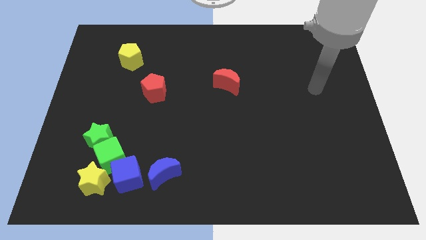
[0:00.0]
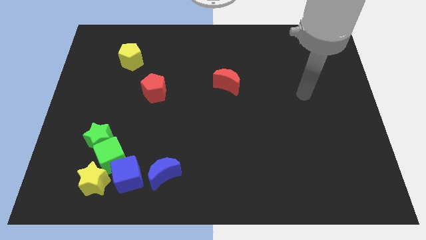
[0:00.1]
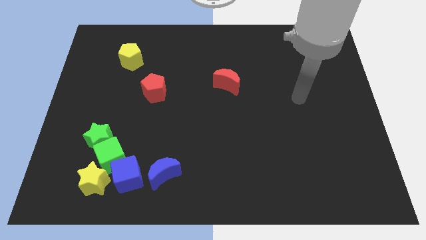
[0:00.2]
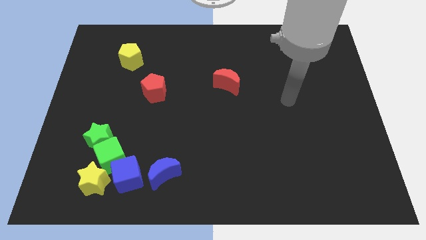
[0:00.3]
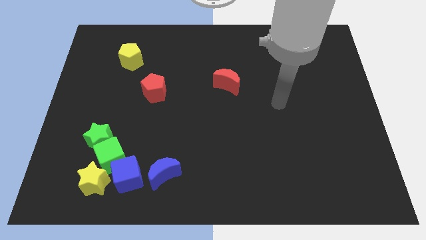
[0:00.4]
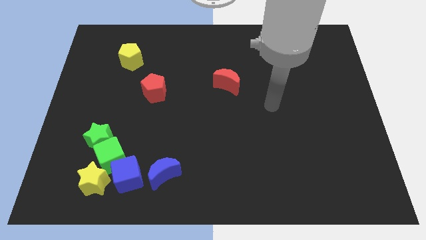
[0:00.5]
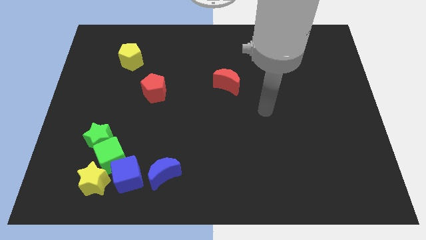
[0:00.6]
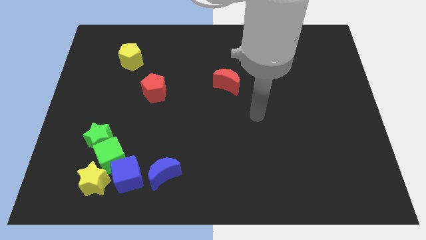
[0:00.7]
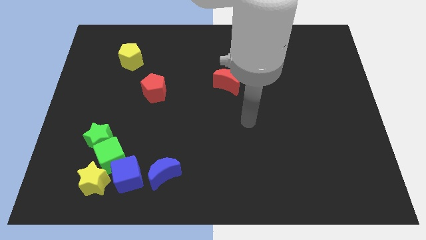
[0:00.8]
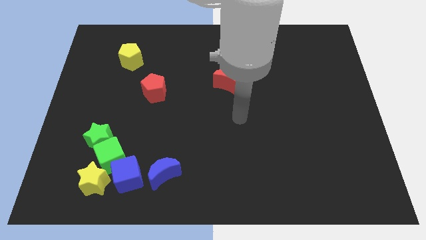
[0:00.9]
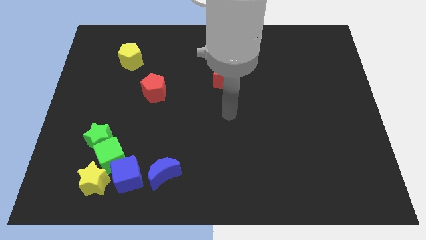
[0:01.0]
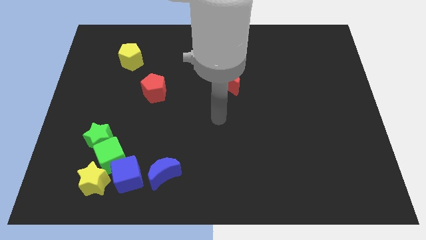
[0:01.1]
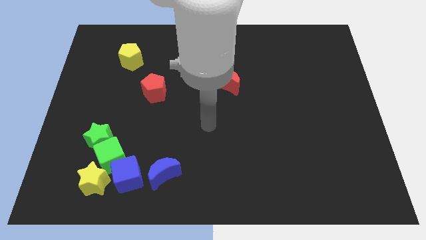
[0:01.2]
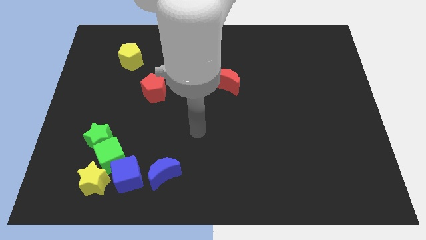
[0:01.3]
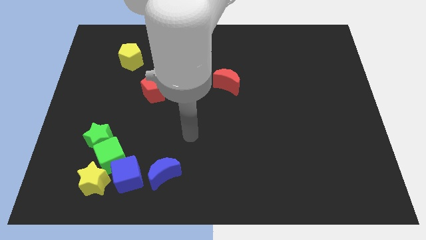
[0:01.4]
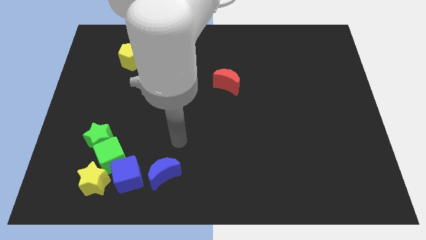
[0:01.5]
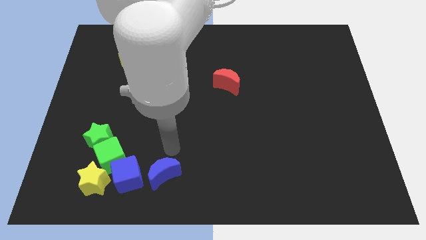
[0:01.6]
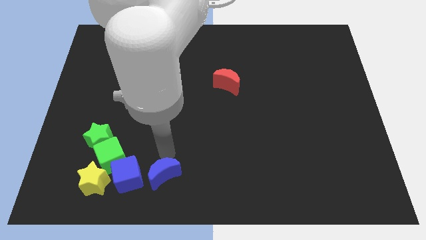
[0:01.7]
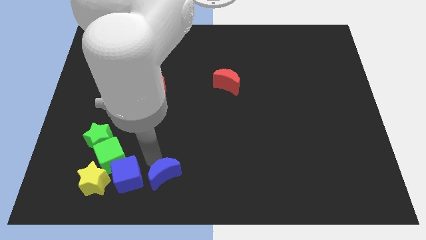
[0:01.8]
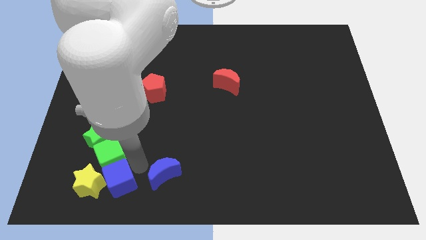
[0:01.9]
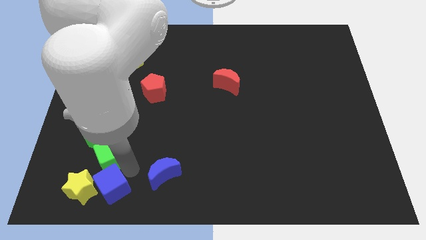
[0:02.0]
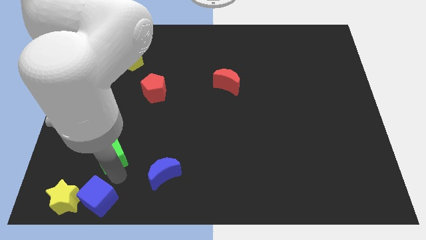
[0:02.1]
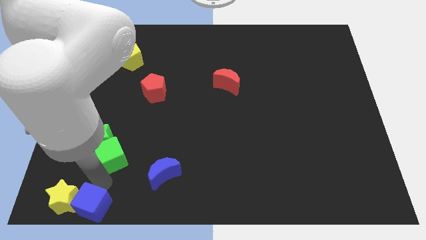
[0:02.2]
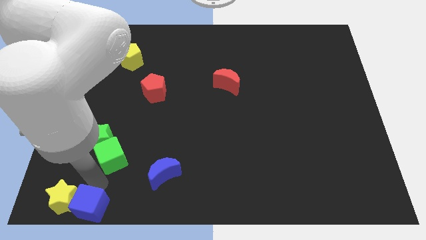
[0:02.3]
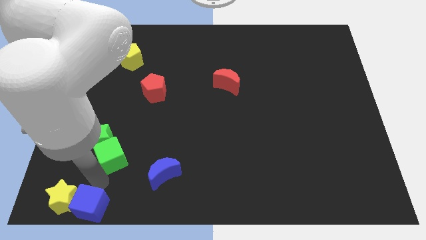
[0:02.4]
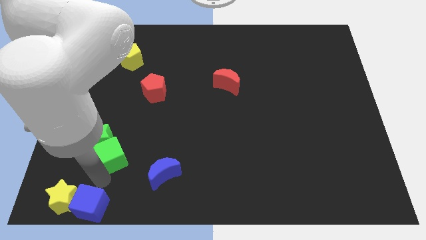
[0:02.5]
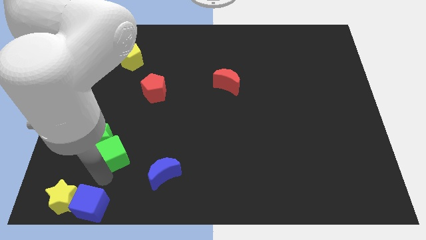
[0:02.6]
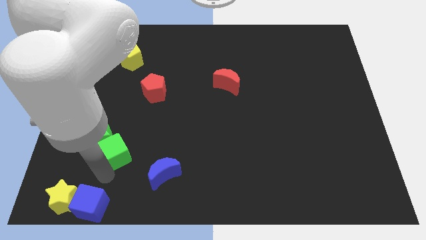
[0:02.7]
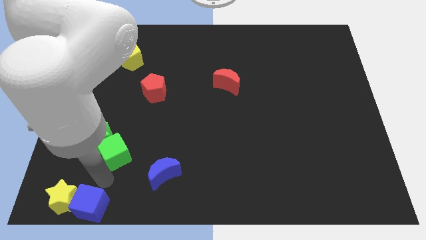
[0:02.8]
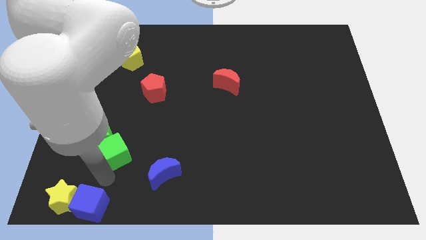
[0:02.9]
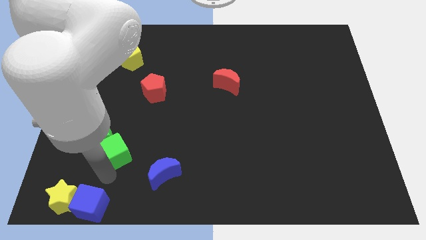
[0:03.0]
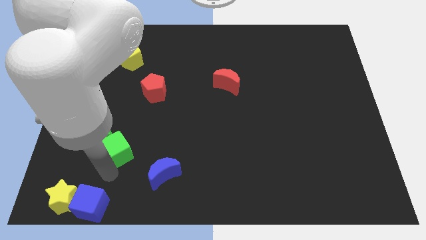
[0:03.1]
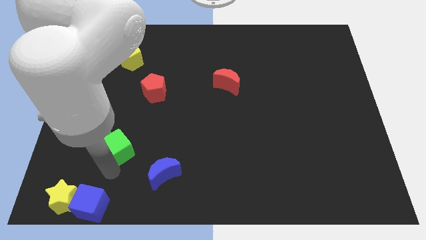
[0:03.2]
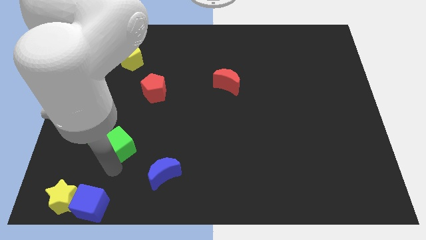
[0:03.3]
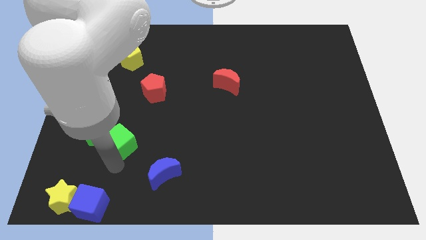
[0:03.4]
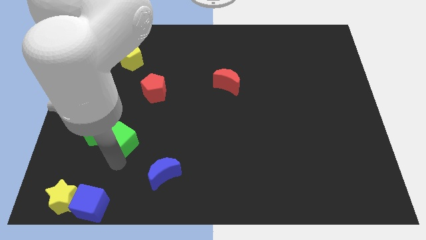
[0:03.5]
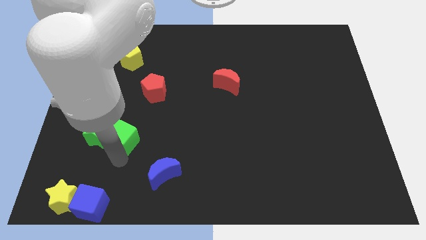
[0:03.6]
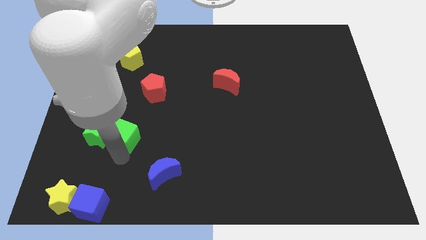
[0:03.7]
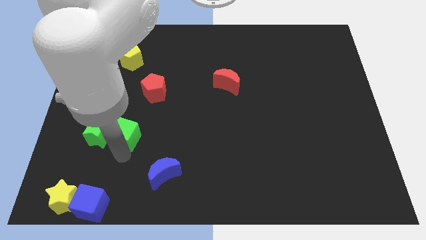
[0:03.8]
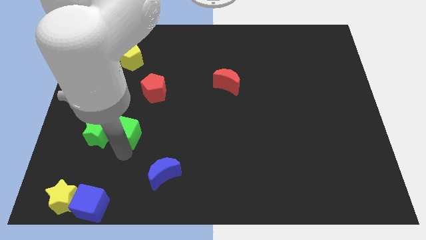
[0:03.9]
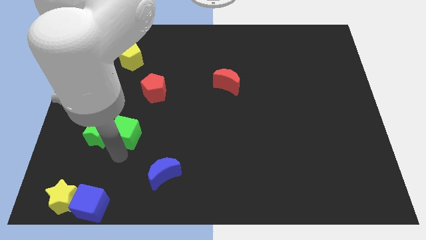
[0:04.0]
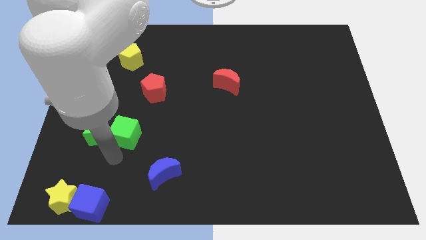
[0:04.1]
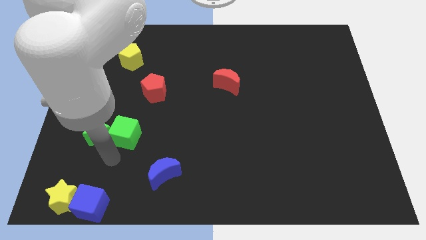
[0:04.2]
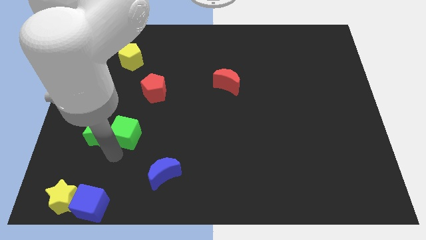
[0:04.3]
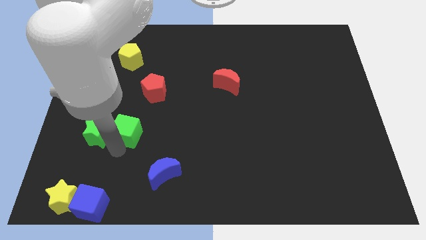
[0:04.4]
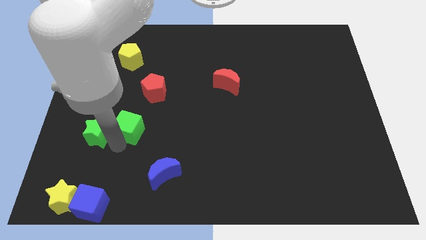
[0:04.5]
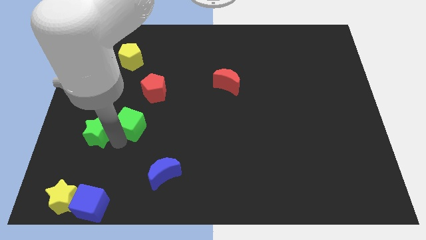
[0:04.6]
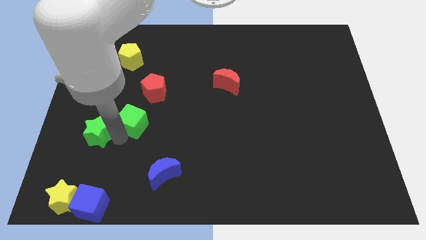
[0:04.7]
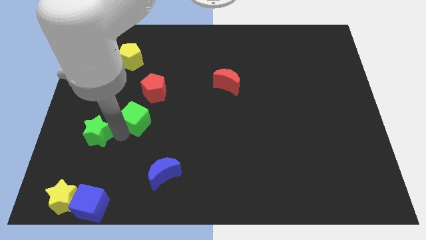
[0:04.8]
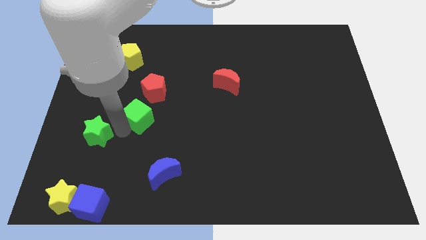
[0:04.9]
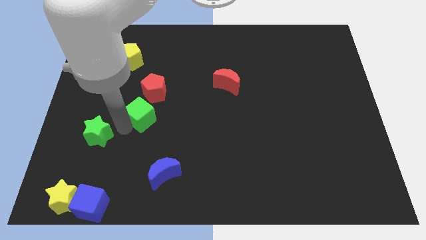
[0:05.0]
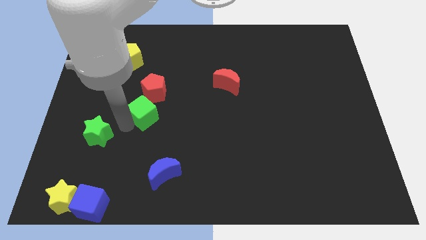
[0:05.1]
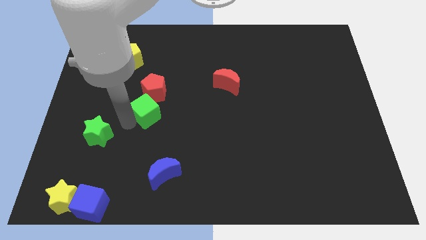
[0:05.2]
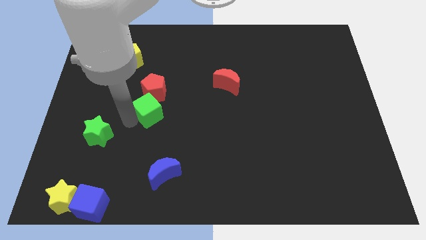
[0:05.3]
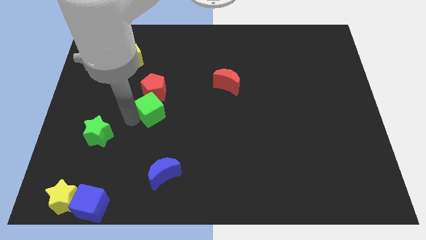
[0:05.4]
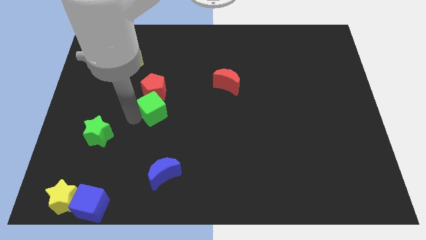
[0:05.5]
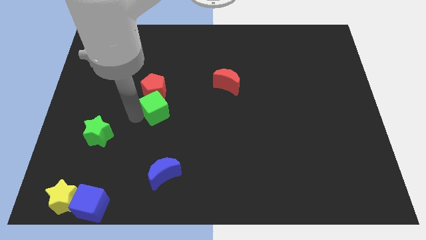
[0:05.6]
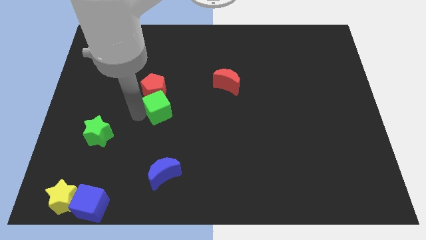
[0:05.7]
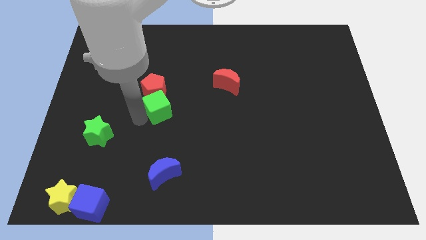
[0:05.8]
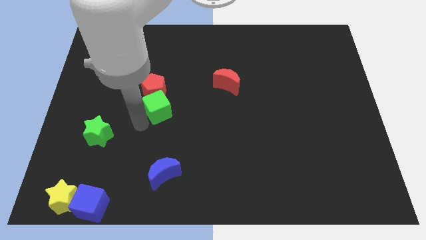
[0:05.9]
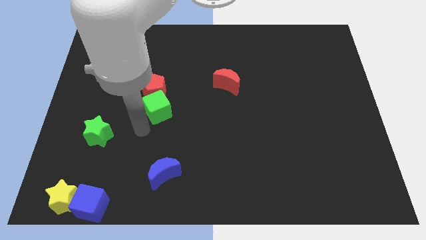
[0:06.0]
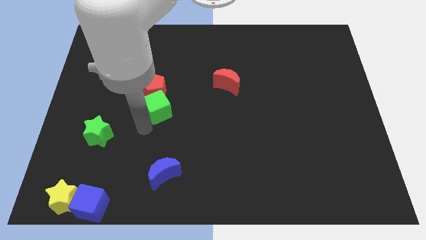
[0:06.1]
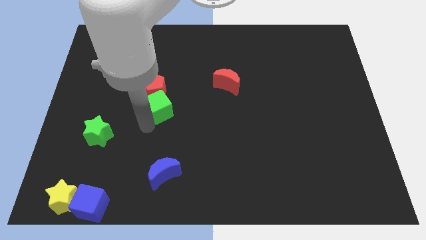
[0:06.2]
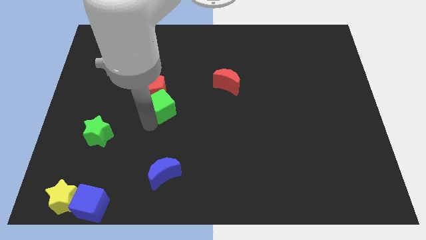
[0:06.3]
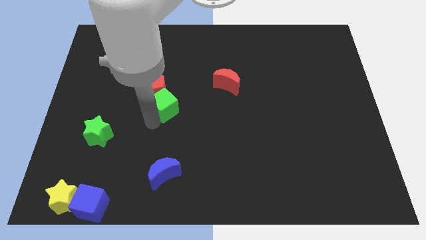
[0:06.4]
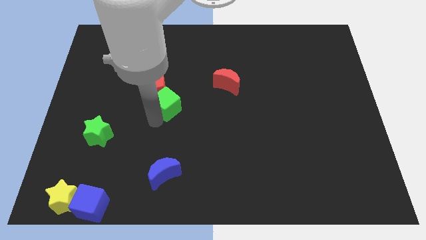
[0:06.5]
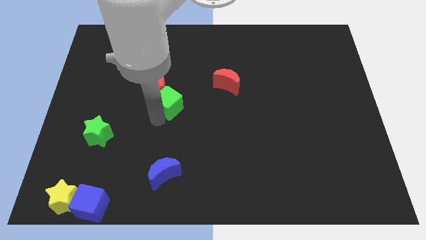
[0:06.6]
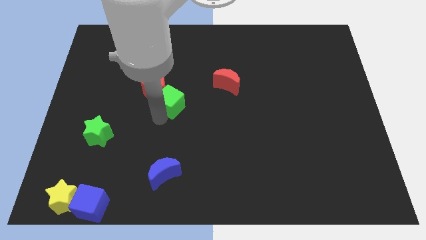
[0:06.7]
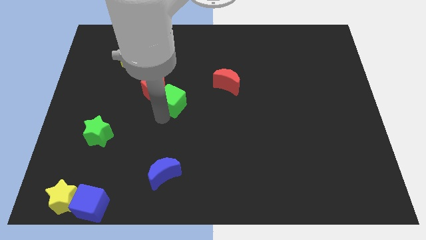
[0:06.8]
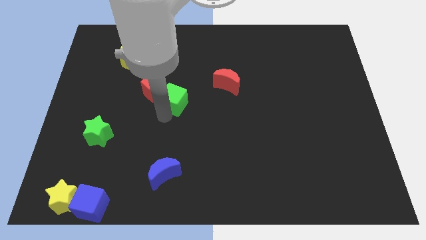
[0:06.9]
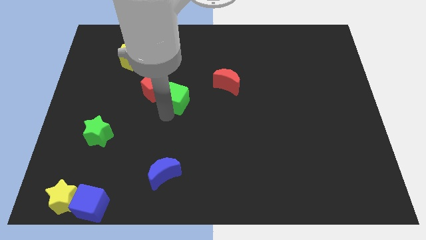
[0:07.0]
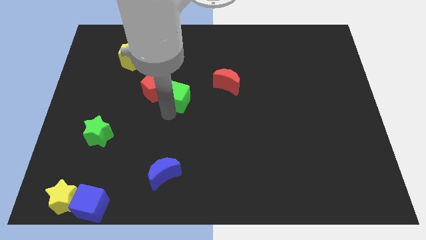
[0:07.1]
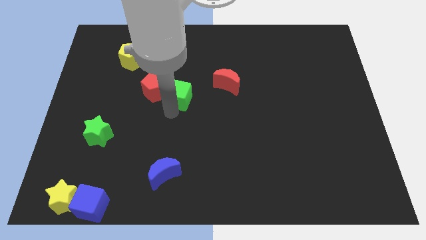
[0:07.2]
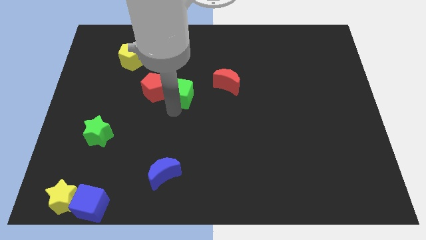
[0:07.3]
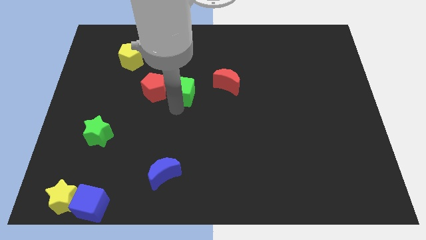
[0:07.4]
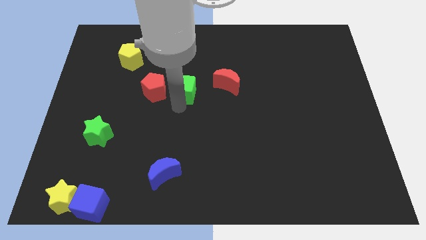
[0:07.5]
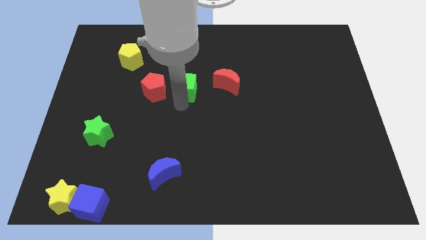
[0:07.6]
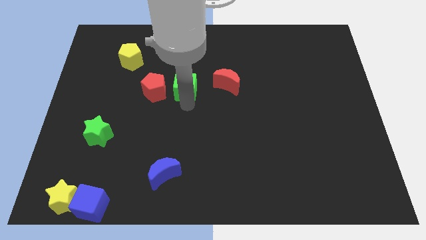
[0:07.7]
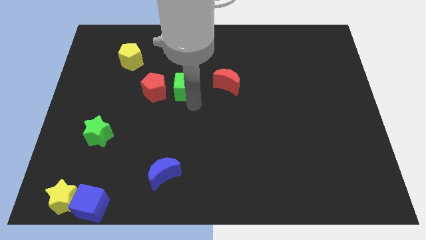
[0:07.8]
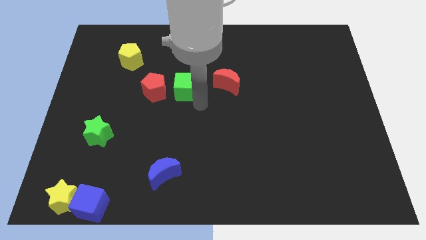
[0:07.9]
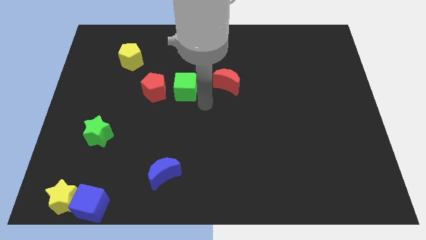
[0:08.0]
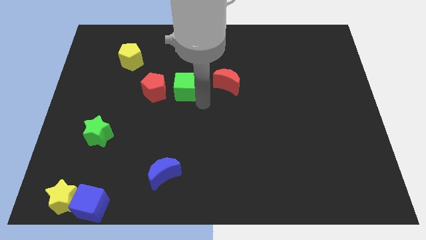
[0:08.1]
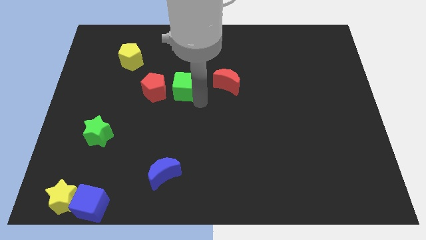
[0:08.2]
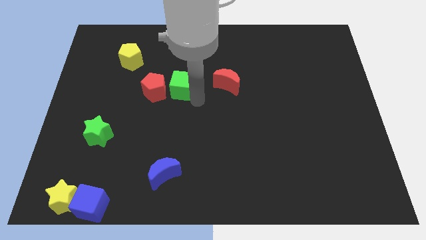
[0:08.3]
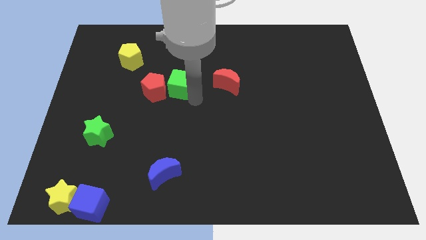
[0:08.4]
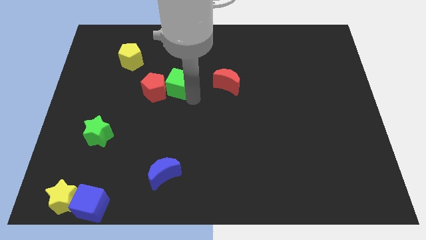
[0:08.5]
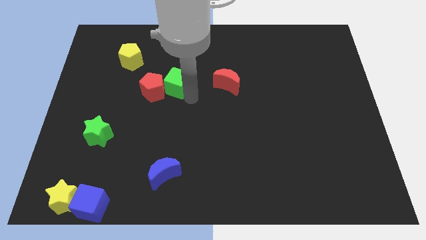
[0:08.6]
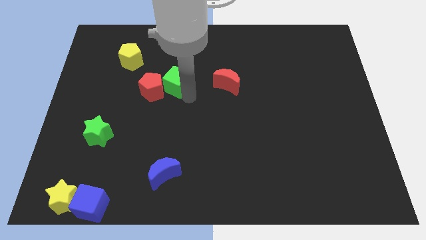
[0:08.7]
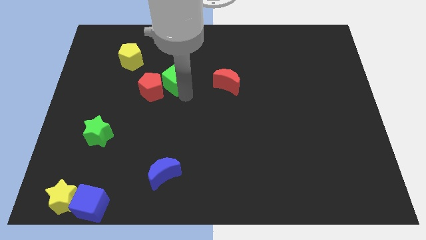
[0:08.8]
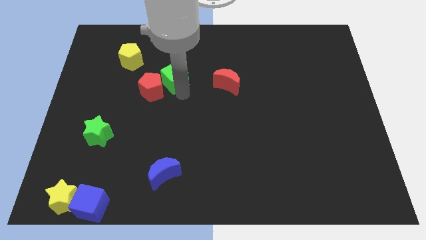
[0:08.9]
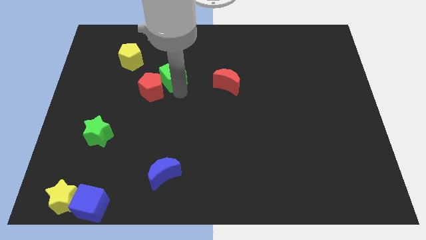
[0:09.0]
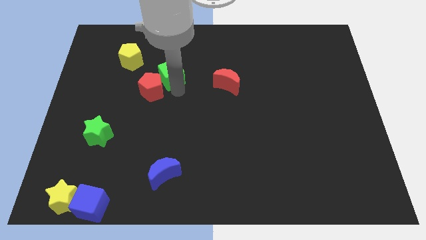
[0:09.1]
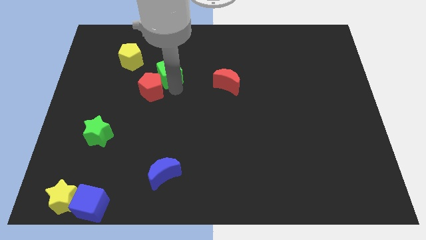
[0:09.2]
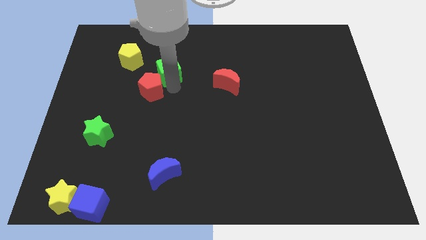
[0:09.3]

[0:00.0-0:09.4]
slide the green cube right of the yellow pentagon
